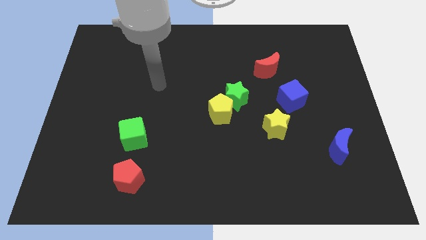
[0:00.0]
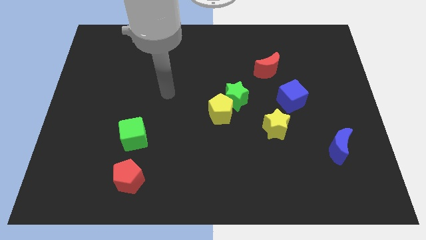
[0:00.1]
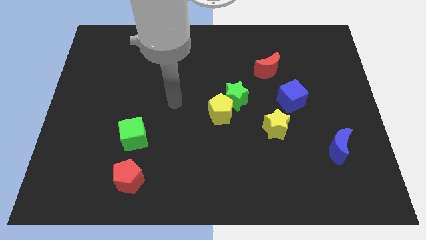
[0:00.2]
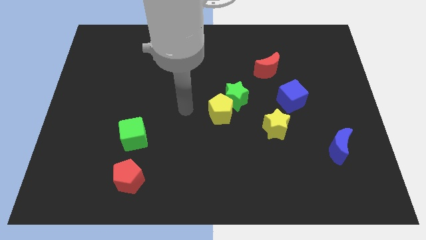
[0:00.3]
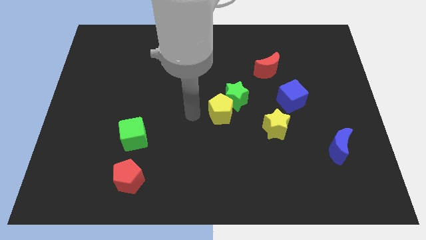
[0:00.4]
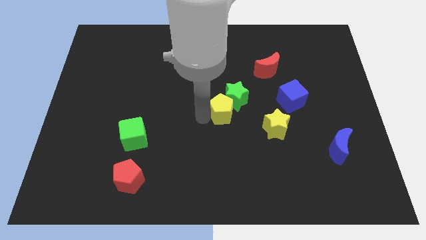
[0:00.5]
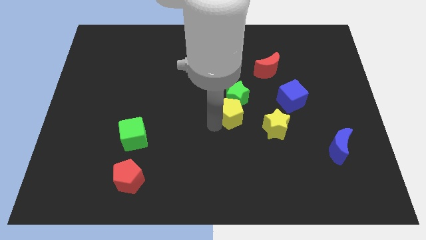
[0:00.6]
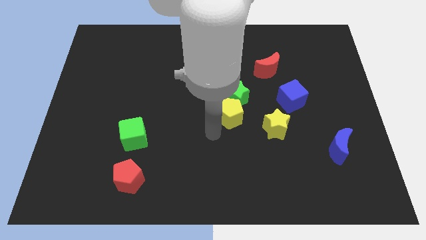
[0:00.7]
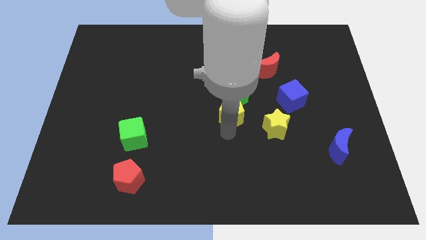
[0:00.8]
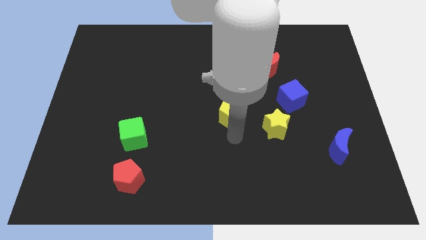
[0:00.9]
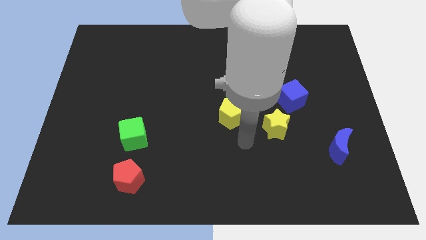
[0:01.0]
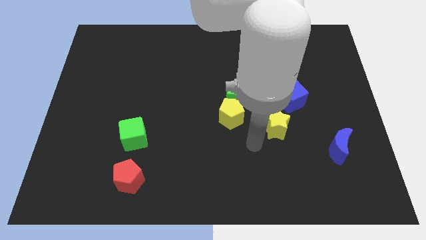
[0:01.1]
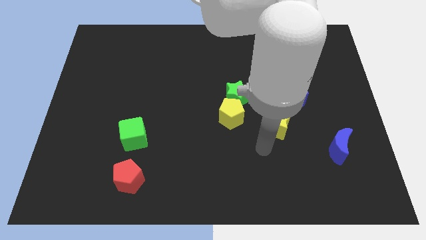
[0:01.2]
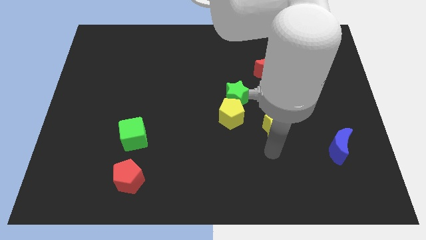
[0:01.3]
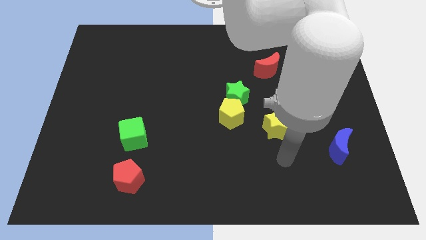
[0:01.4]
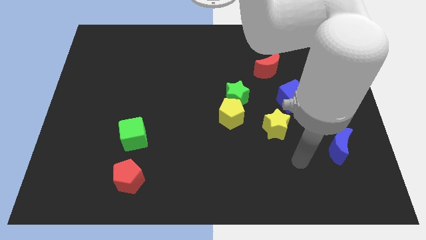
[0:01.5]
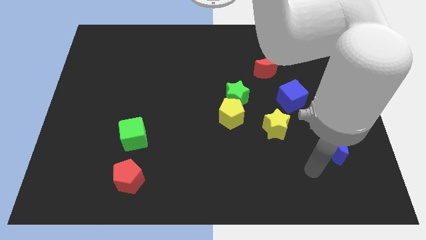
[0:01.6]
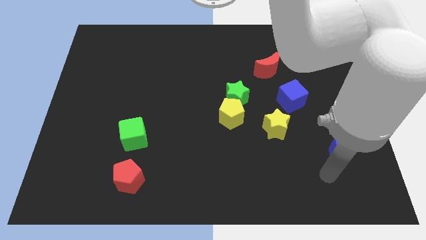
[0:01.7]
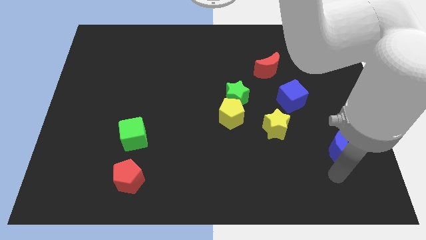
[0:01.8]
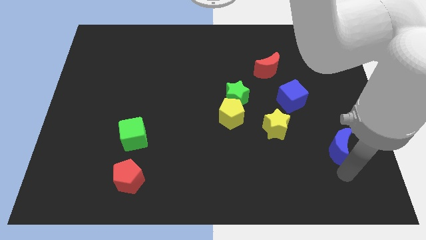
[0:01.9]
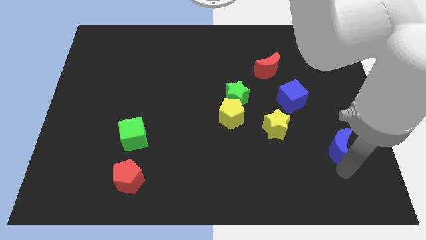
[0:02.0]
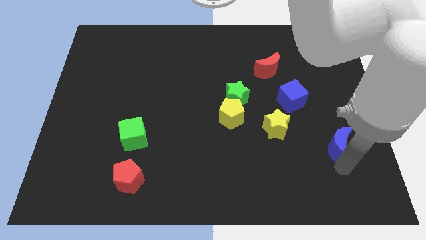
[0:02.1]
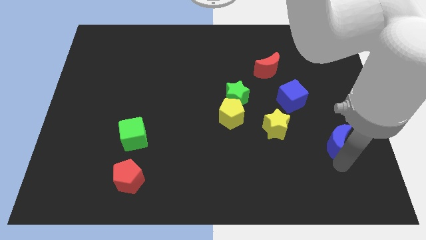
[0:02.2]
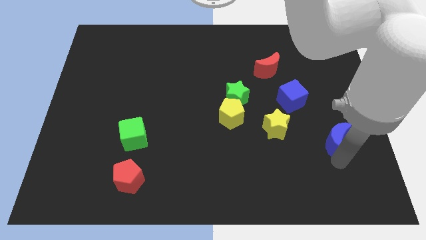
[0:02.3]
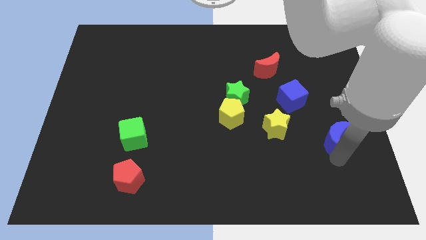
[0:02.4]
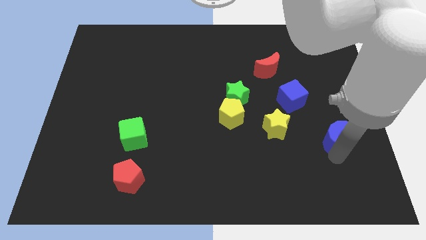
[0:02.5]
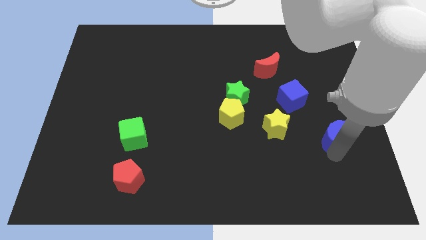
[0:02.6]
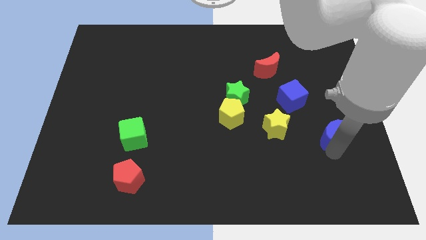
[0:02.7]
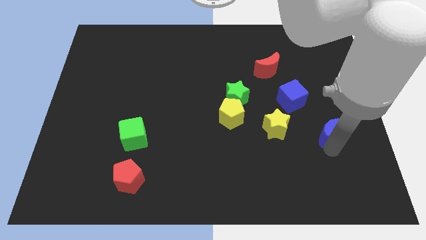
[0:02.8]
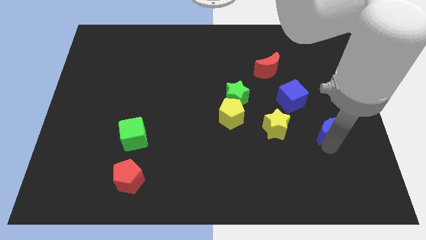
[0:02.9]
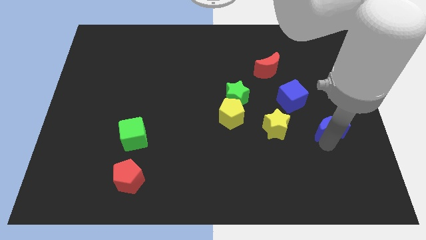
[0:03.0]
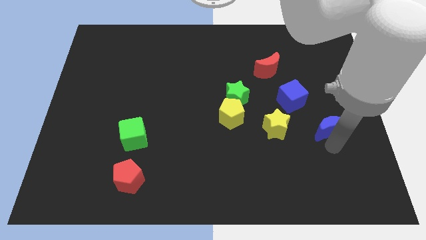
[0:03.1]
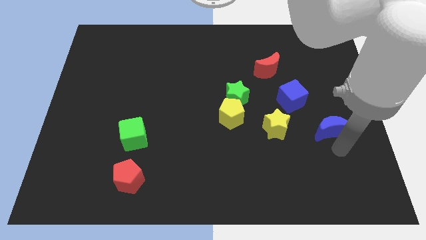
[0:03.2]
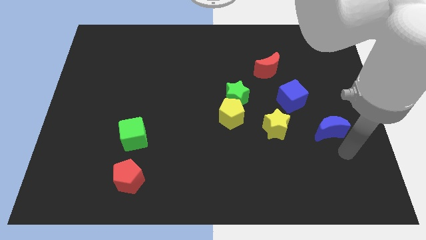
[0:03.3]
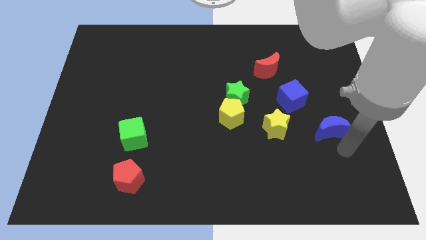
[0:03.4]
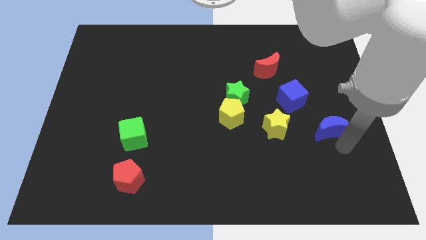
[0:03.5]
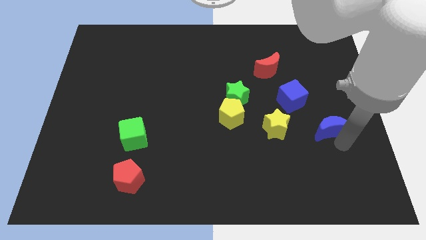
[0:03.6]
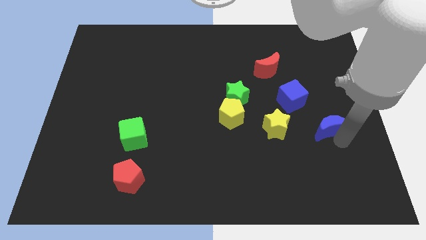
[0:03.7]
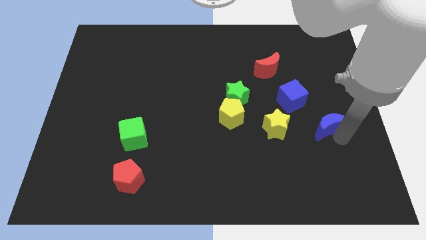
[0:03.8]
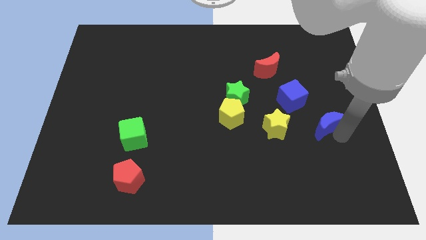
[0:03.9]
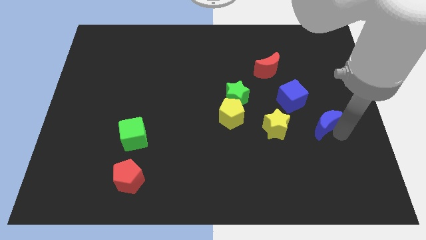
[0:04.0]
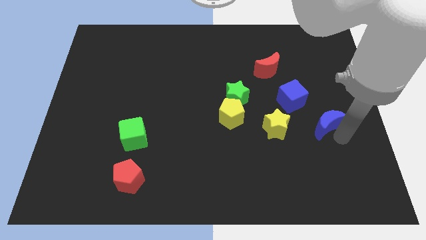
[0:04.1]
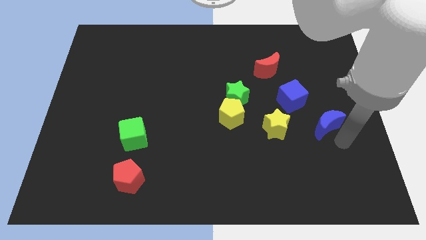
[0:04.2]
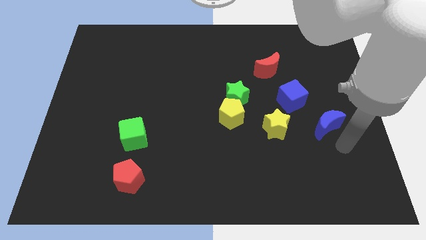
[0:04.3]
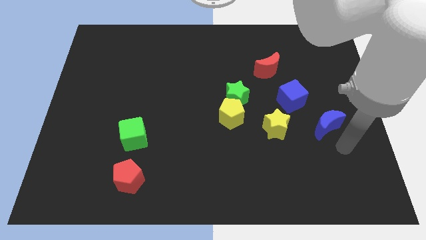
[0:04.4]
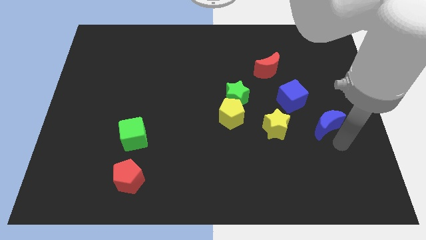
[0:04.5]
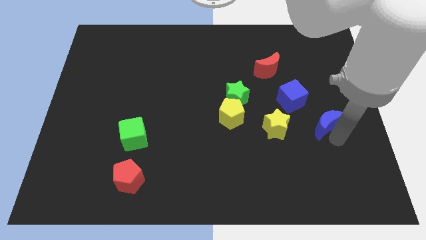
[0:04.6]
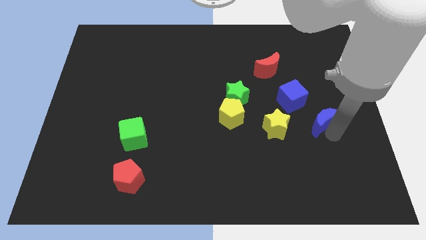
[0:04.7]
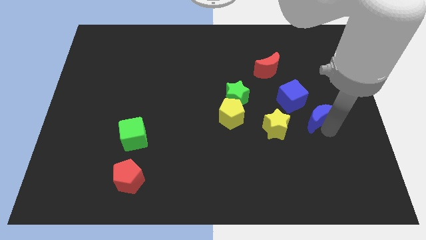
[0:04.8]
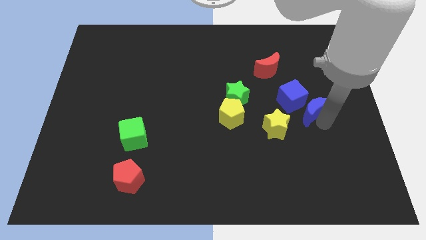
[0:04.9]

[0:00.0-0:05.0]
slide the blue moon to the blue cube

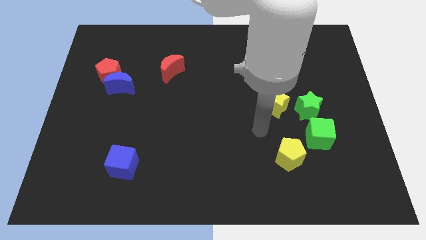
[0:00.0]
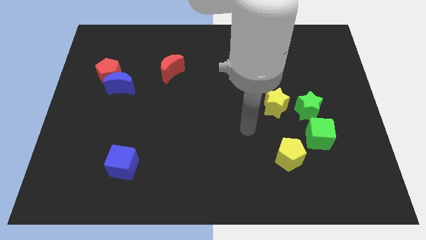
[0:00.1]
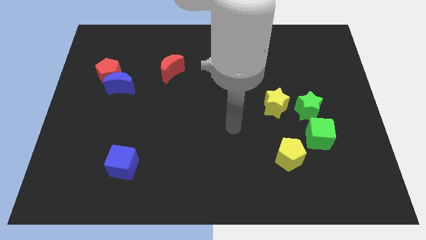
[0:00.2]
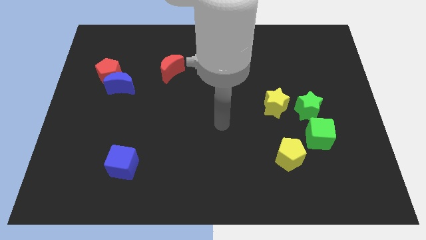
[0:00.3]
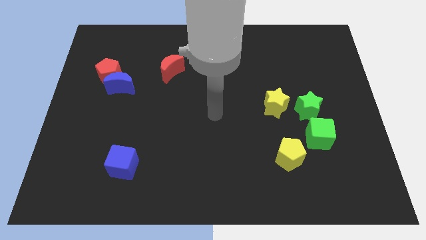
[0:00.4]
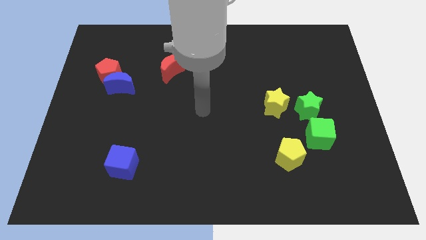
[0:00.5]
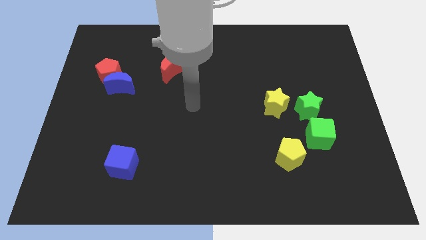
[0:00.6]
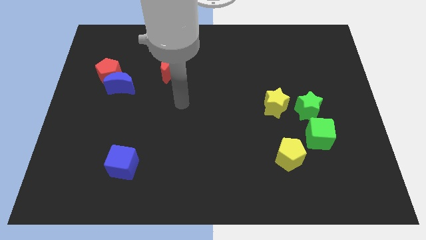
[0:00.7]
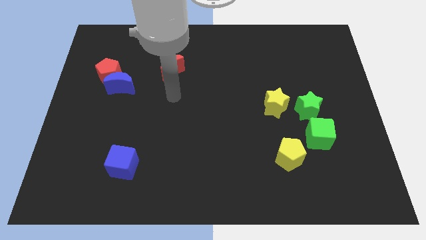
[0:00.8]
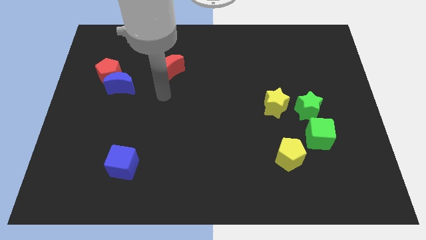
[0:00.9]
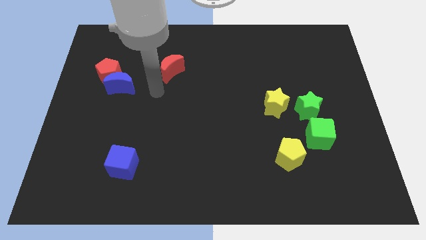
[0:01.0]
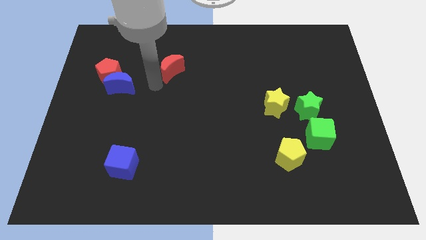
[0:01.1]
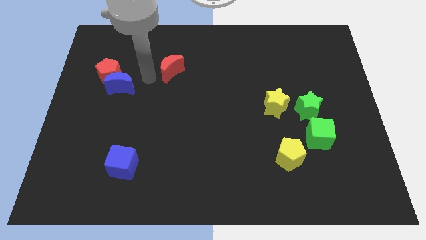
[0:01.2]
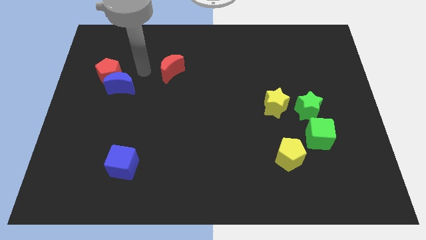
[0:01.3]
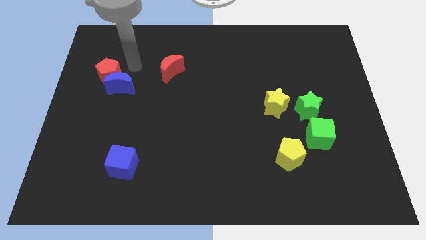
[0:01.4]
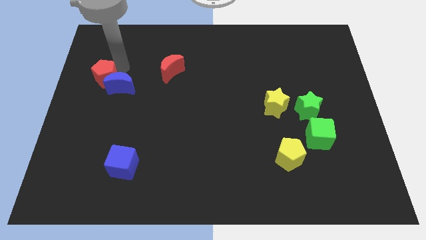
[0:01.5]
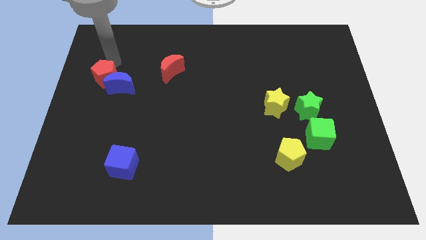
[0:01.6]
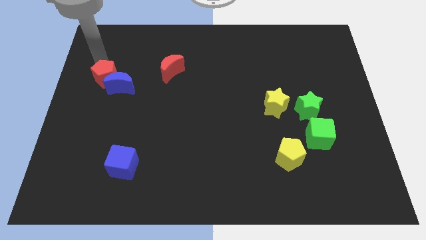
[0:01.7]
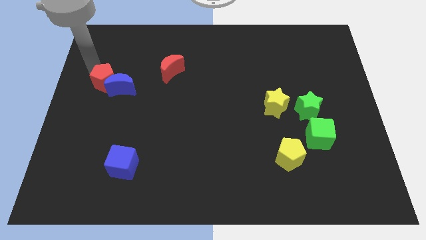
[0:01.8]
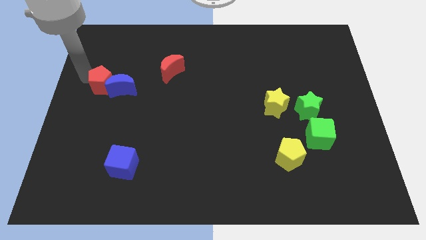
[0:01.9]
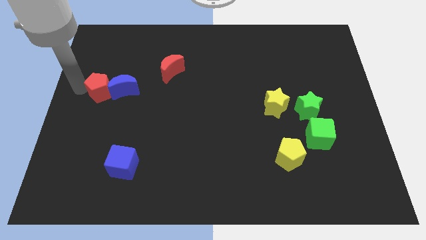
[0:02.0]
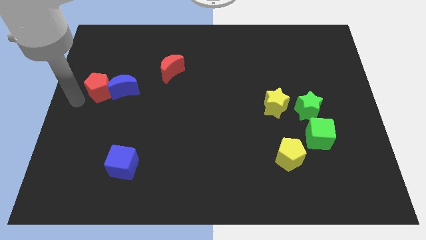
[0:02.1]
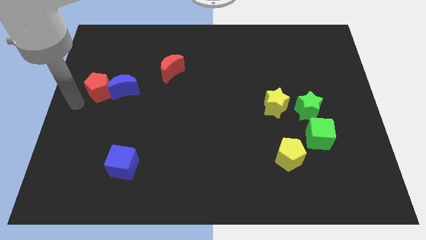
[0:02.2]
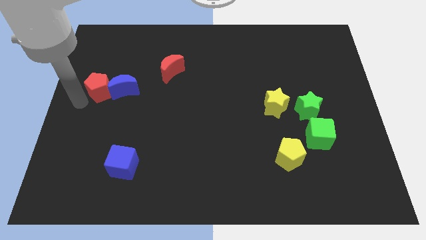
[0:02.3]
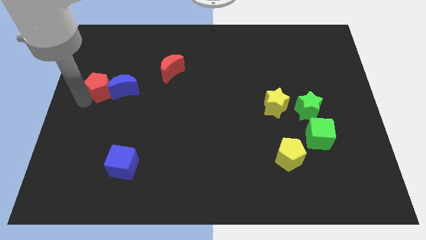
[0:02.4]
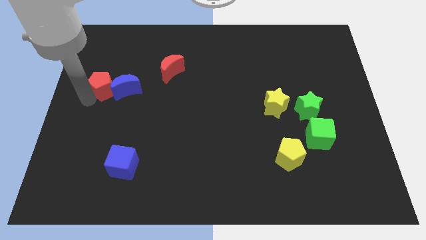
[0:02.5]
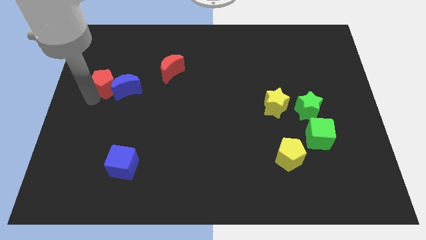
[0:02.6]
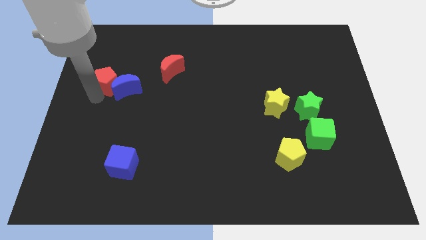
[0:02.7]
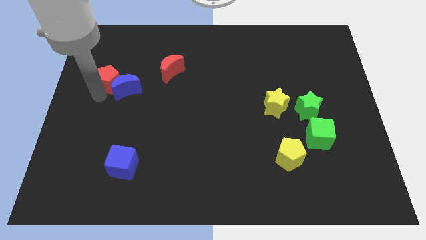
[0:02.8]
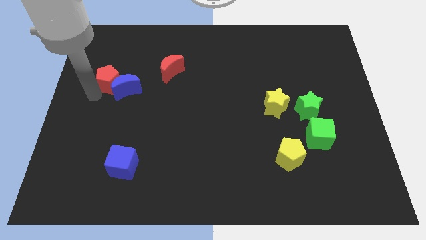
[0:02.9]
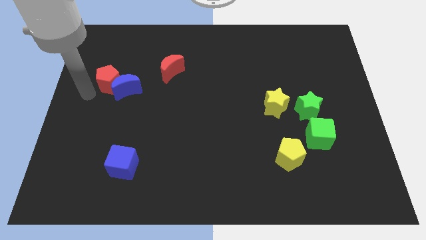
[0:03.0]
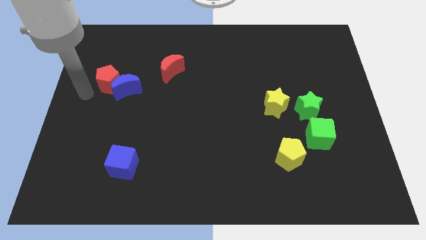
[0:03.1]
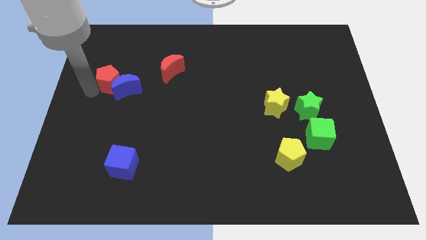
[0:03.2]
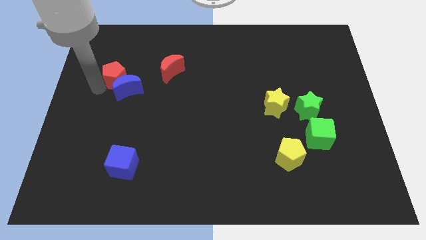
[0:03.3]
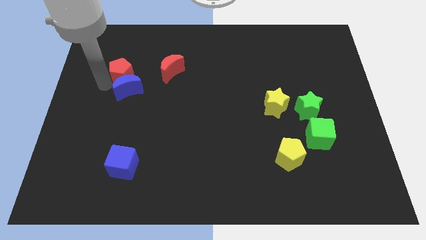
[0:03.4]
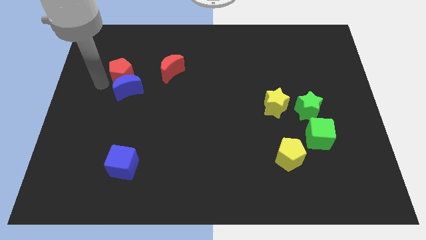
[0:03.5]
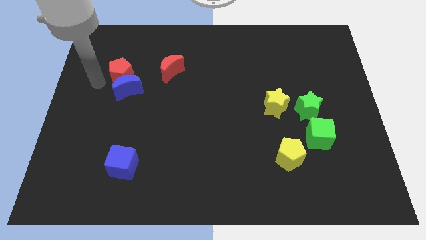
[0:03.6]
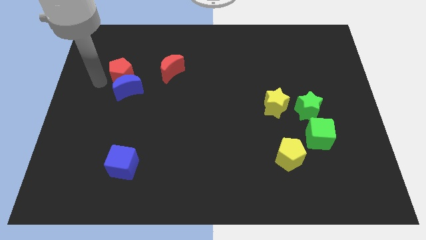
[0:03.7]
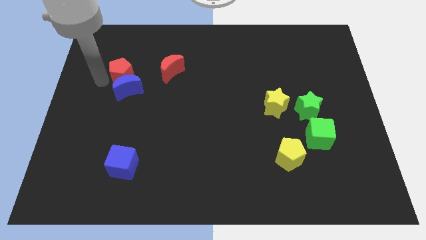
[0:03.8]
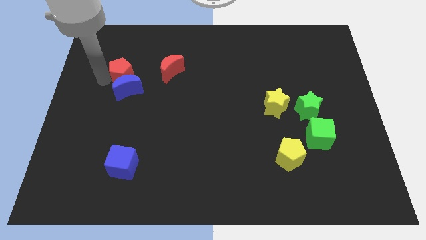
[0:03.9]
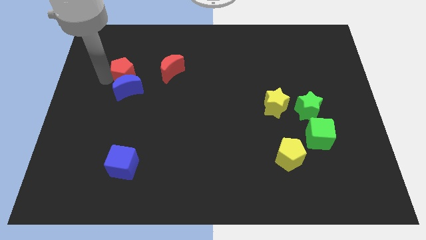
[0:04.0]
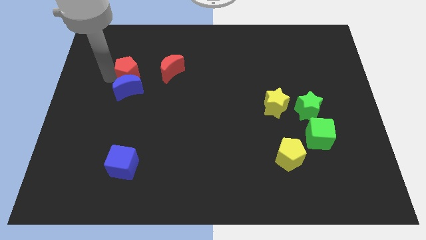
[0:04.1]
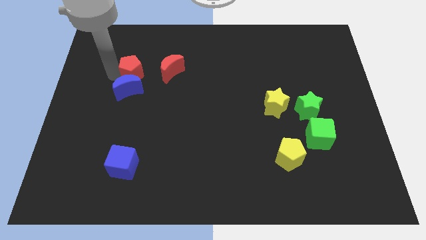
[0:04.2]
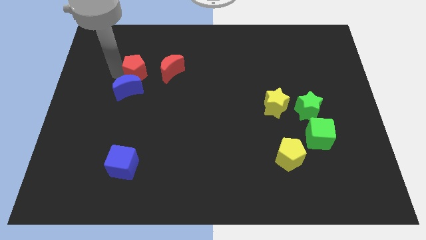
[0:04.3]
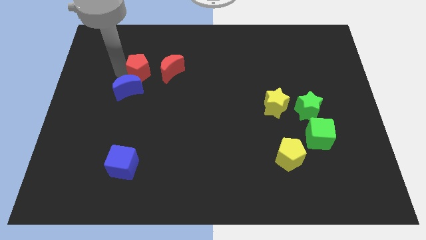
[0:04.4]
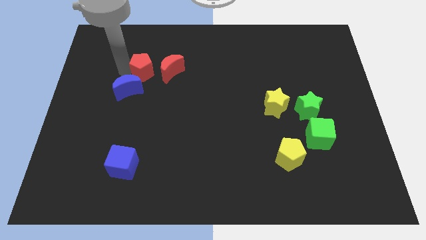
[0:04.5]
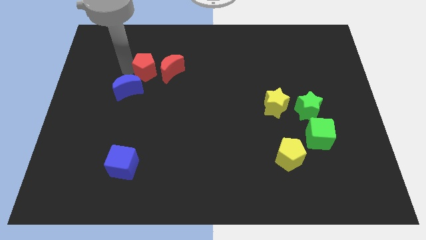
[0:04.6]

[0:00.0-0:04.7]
move the red pentagon towards the red moon
